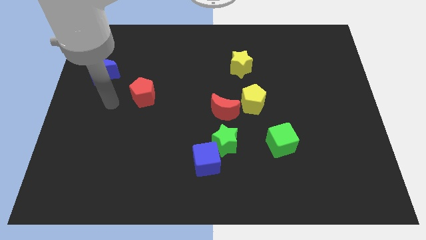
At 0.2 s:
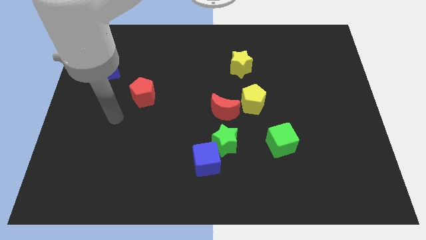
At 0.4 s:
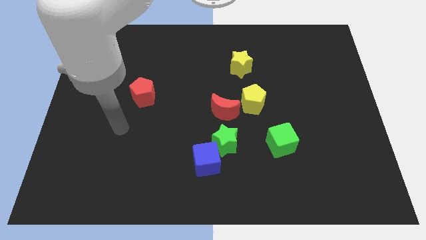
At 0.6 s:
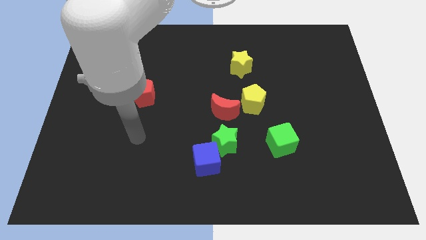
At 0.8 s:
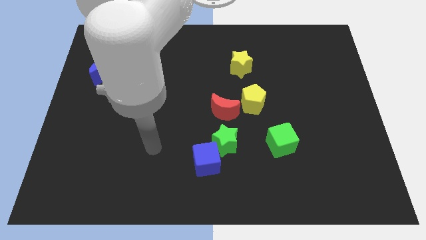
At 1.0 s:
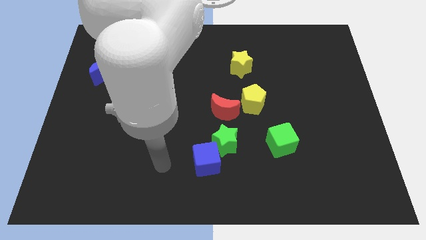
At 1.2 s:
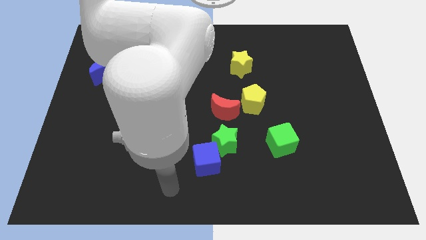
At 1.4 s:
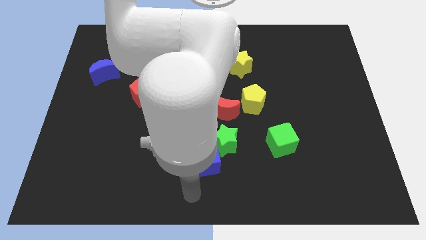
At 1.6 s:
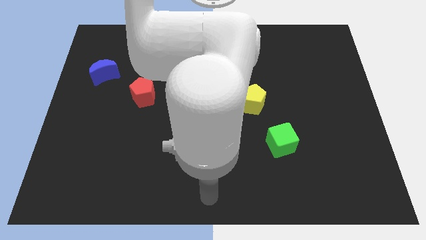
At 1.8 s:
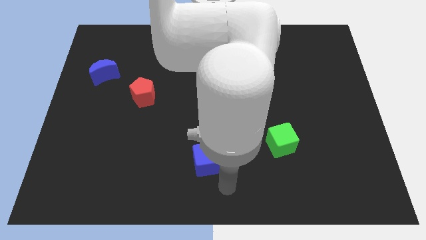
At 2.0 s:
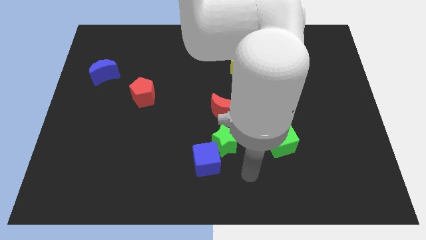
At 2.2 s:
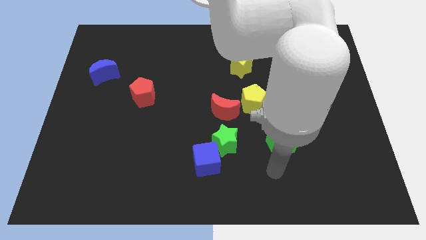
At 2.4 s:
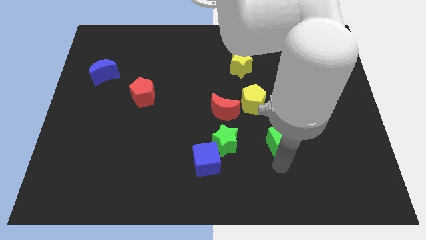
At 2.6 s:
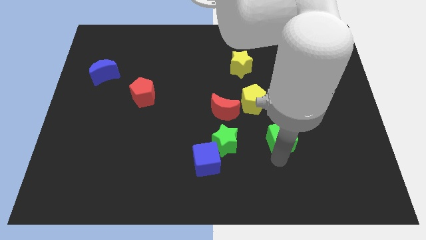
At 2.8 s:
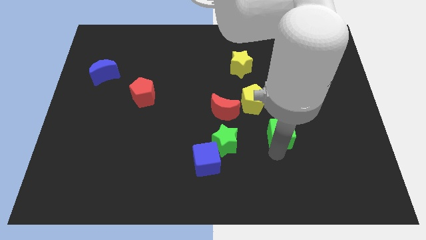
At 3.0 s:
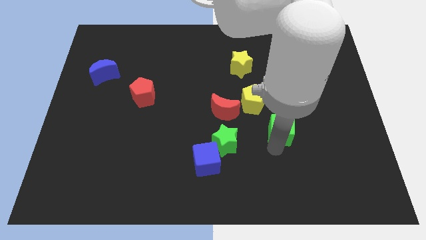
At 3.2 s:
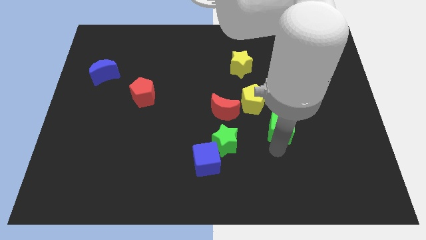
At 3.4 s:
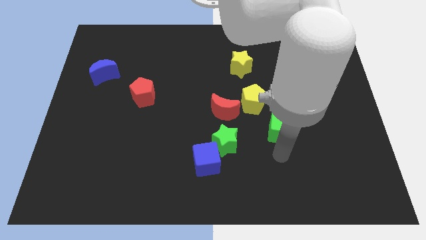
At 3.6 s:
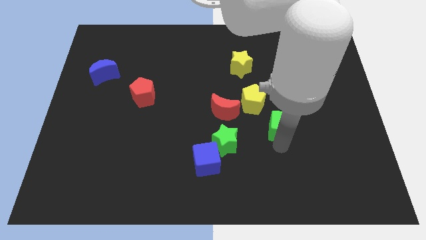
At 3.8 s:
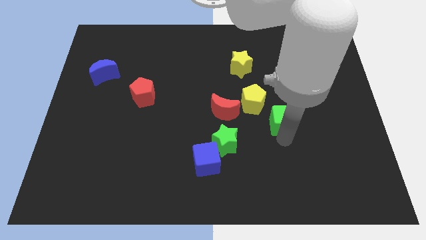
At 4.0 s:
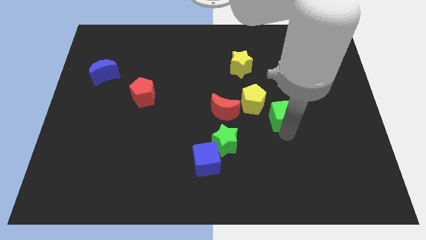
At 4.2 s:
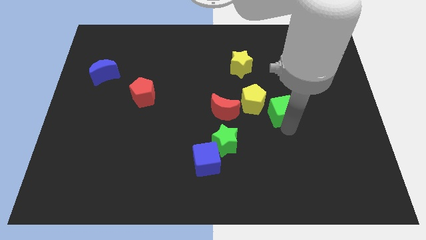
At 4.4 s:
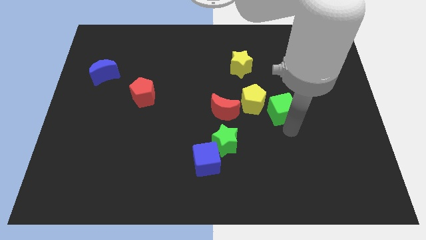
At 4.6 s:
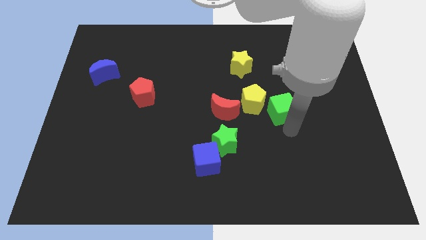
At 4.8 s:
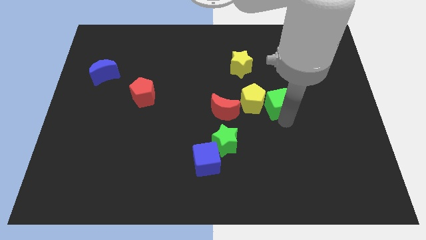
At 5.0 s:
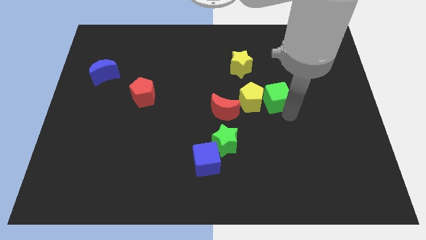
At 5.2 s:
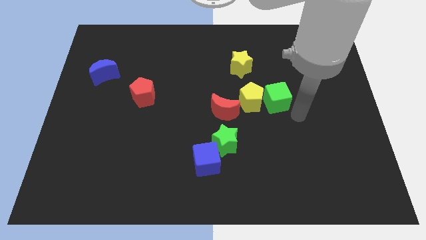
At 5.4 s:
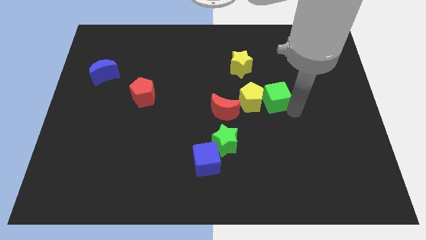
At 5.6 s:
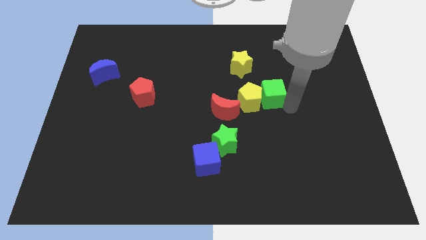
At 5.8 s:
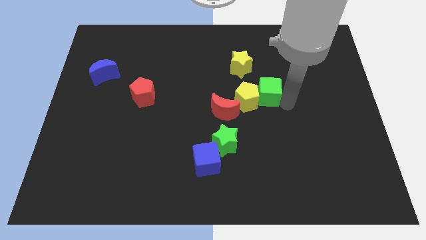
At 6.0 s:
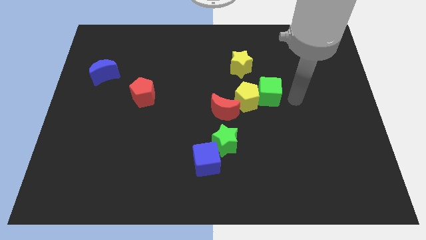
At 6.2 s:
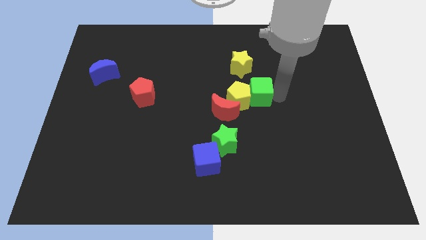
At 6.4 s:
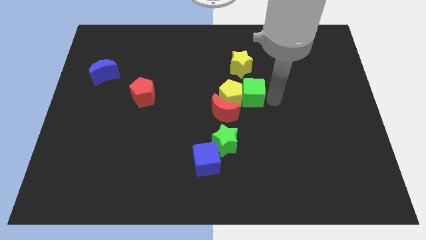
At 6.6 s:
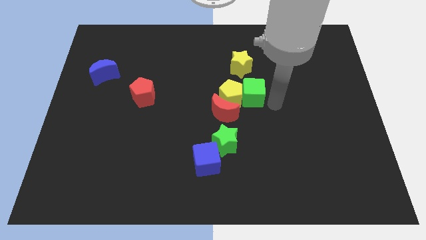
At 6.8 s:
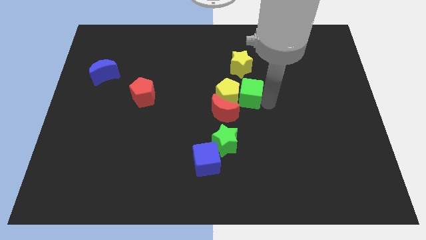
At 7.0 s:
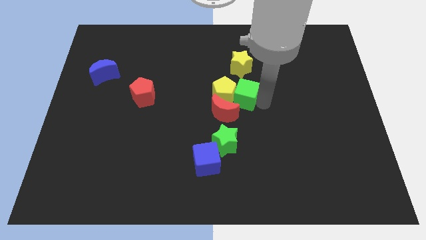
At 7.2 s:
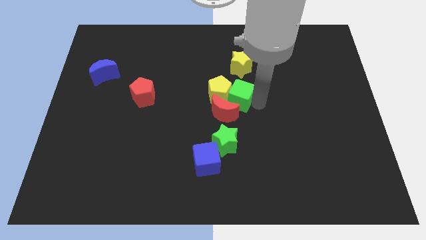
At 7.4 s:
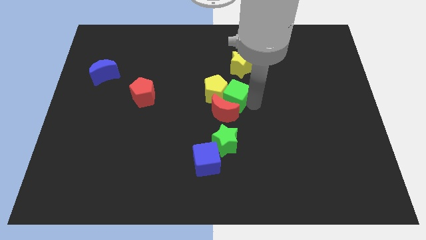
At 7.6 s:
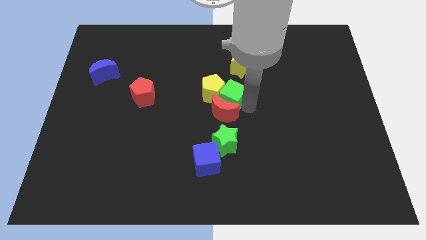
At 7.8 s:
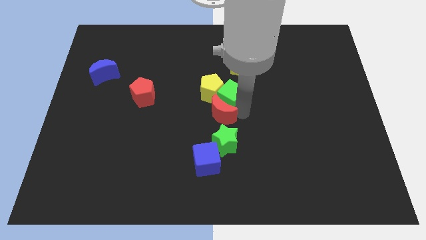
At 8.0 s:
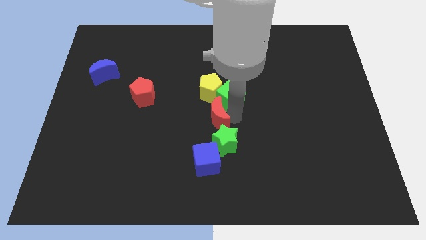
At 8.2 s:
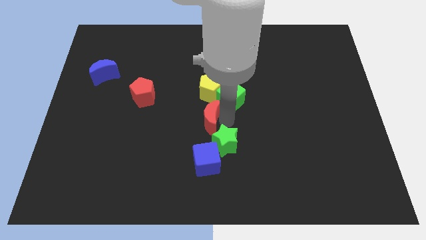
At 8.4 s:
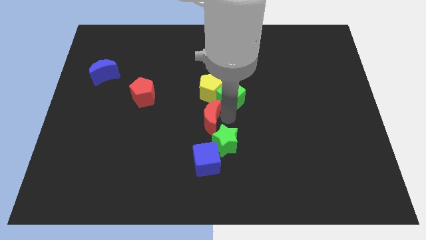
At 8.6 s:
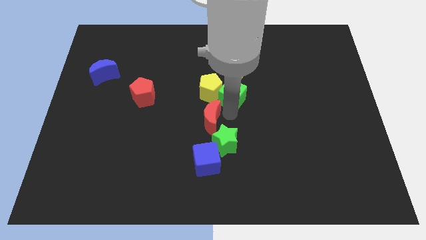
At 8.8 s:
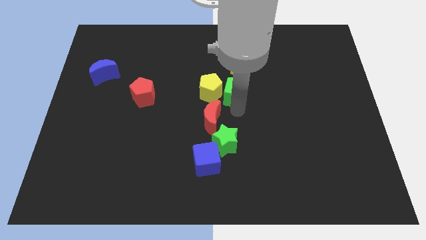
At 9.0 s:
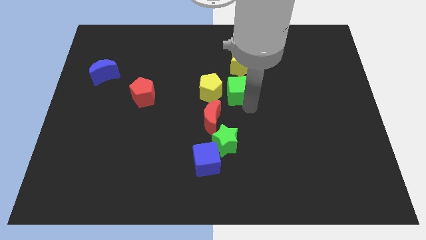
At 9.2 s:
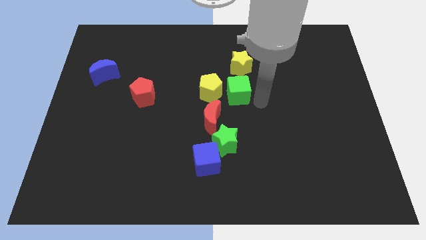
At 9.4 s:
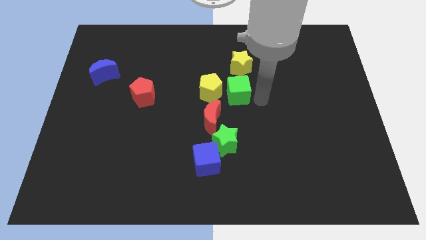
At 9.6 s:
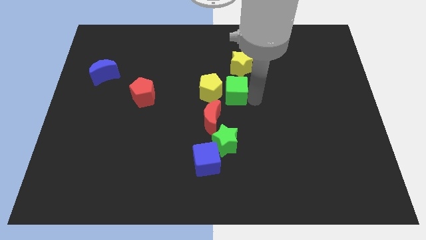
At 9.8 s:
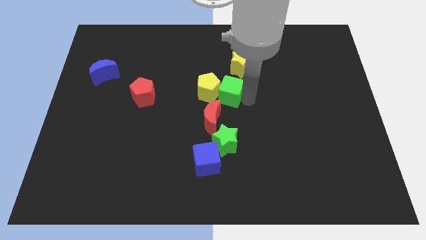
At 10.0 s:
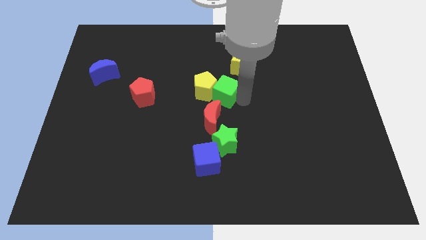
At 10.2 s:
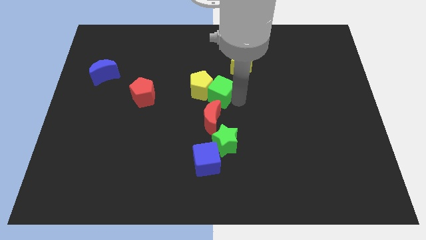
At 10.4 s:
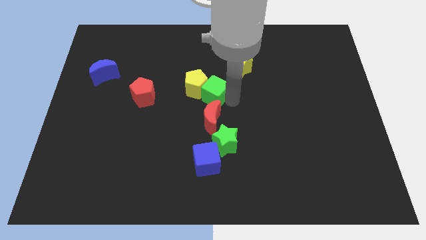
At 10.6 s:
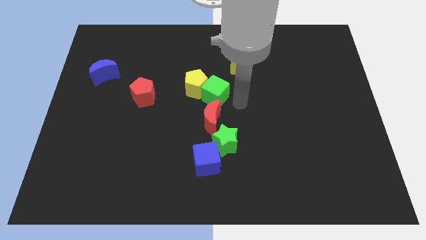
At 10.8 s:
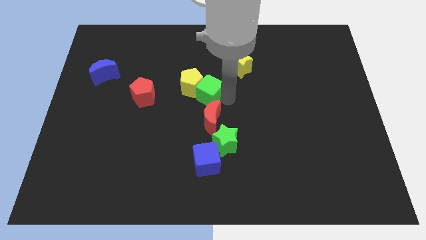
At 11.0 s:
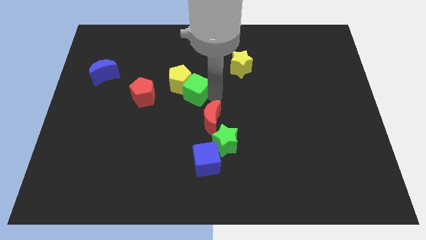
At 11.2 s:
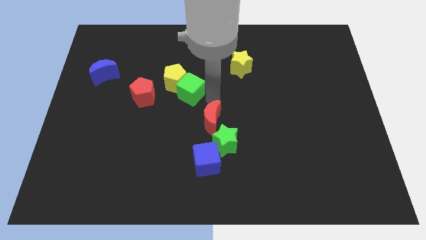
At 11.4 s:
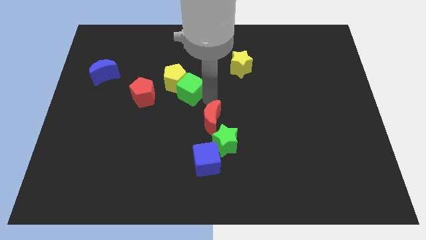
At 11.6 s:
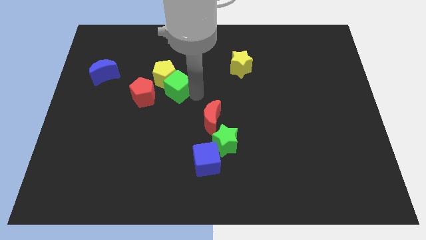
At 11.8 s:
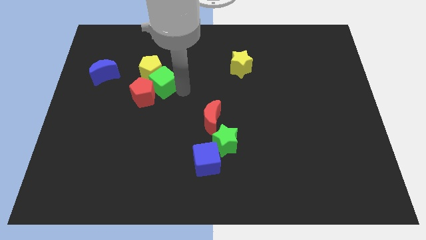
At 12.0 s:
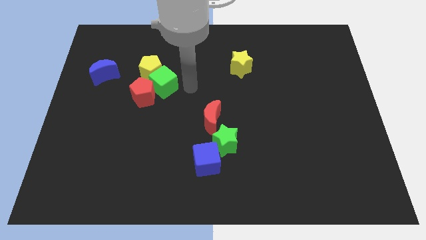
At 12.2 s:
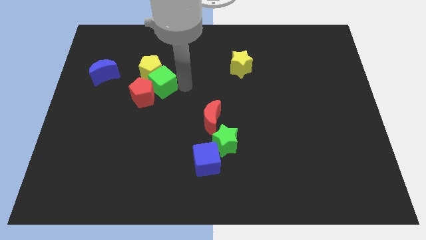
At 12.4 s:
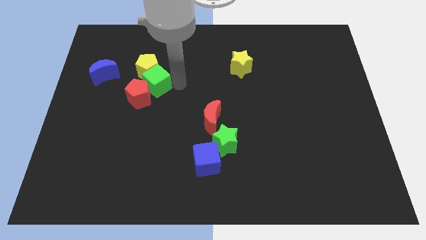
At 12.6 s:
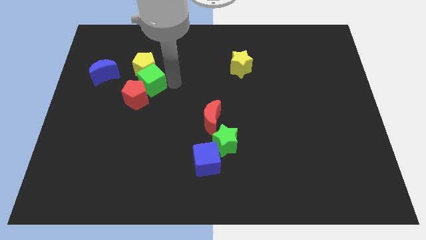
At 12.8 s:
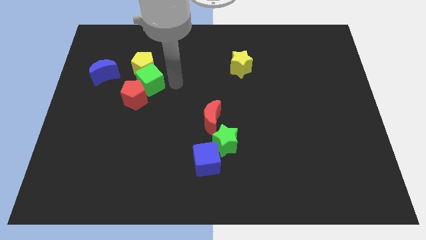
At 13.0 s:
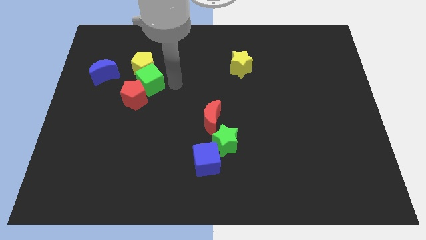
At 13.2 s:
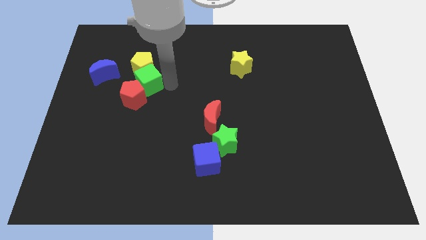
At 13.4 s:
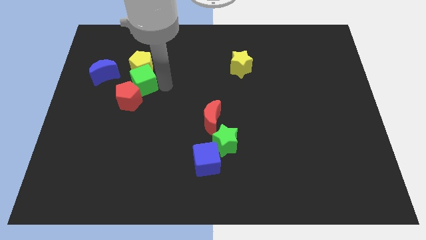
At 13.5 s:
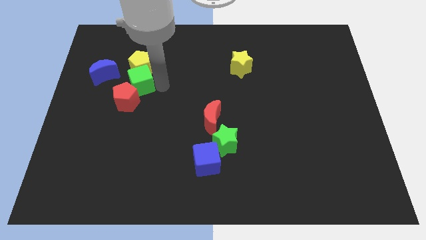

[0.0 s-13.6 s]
slide the green cube to the bottom right of the blue moon

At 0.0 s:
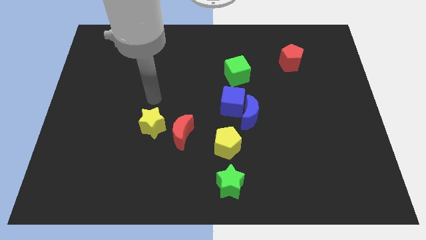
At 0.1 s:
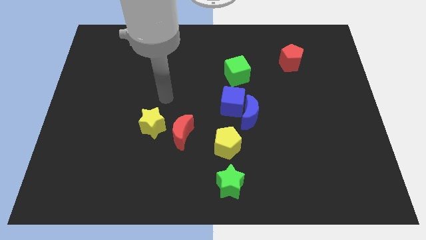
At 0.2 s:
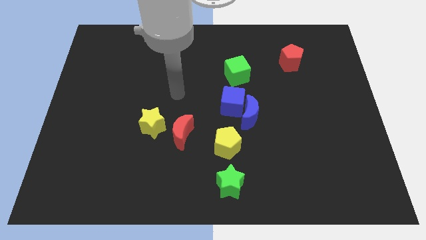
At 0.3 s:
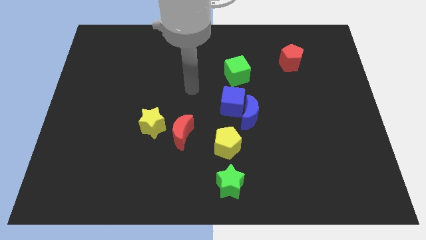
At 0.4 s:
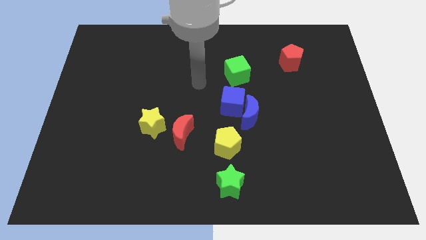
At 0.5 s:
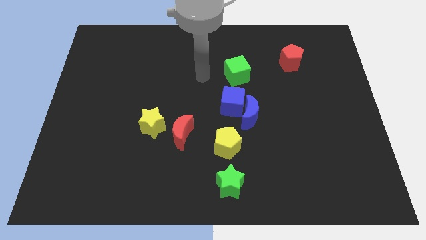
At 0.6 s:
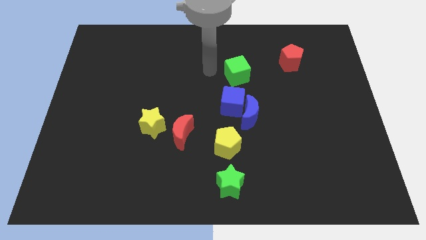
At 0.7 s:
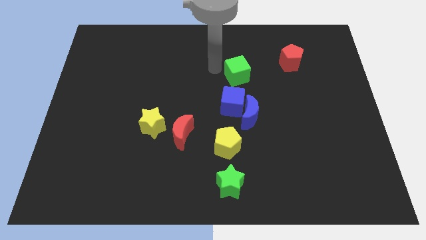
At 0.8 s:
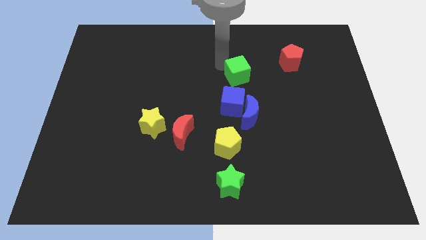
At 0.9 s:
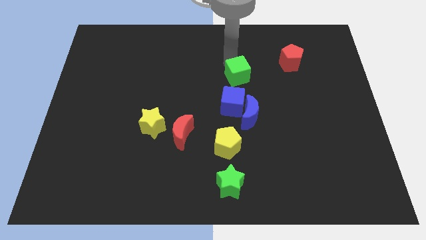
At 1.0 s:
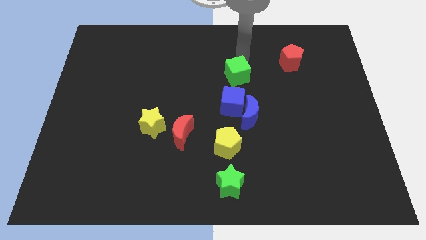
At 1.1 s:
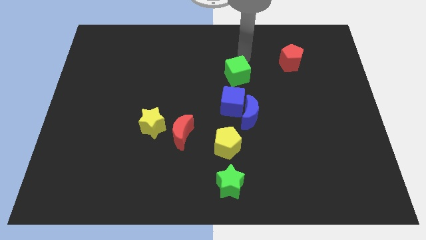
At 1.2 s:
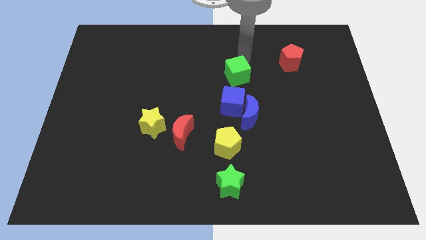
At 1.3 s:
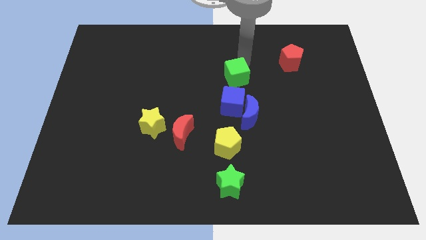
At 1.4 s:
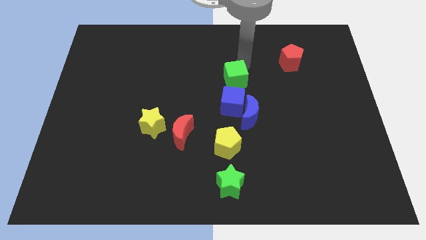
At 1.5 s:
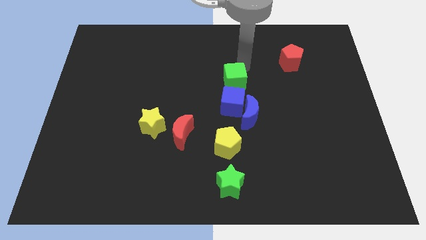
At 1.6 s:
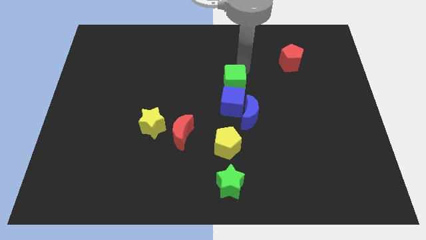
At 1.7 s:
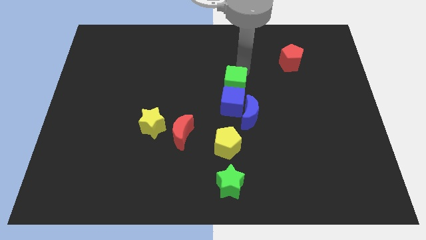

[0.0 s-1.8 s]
push the green cube to the top left of the blue moon
